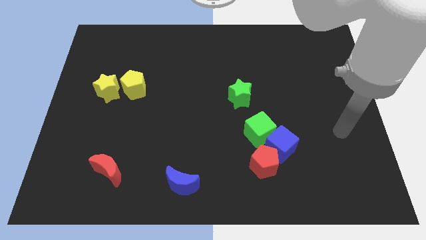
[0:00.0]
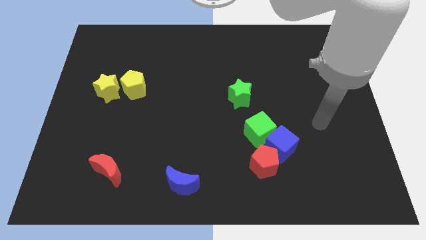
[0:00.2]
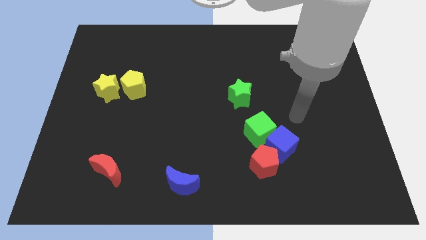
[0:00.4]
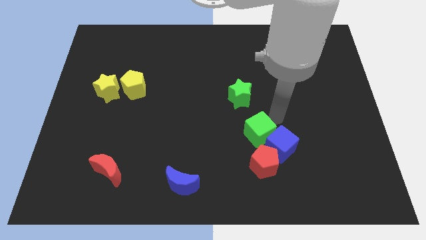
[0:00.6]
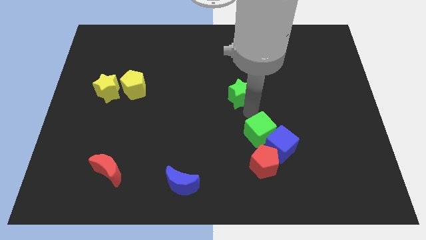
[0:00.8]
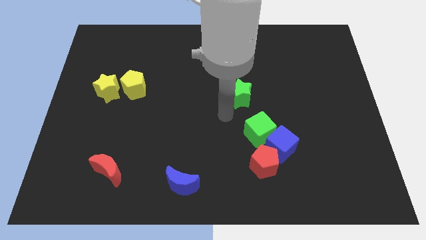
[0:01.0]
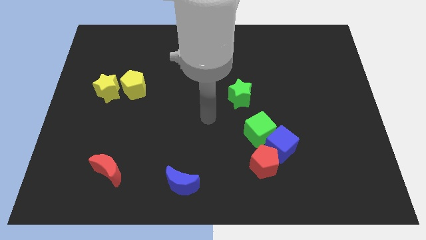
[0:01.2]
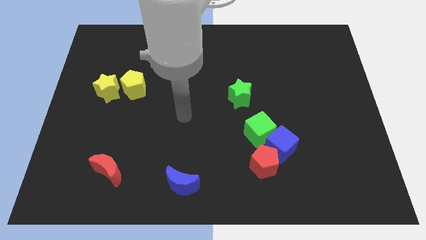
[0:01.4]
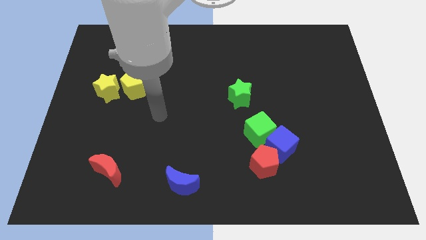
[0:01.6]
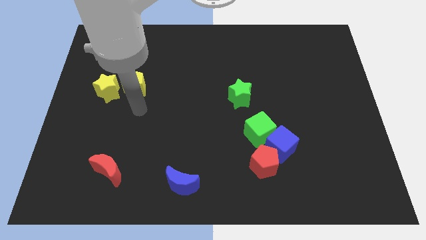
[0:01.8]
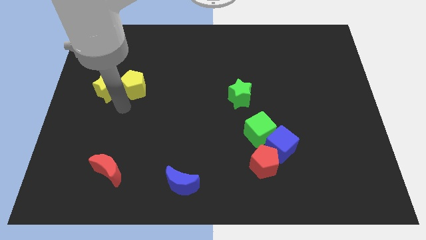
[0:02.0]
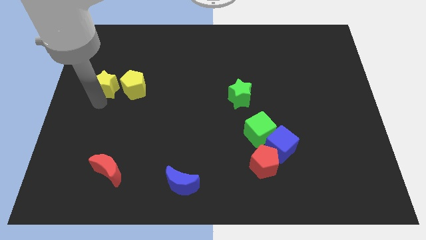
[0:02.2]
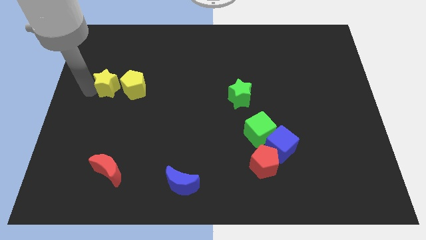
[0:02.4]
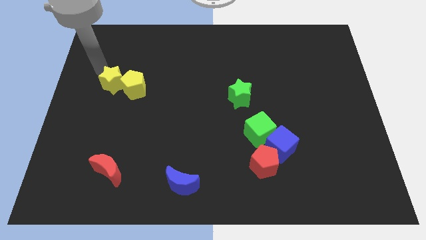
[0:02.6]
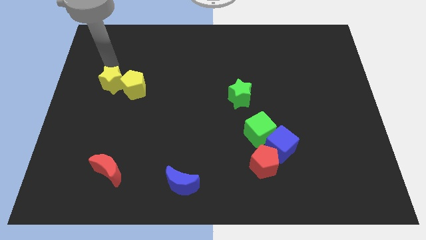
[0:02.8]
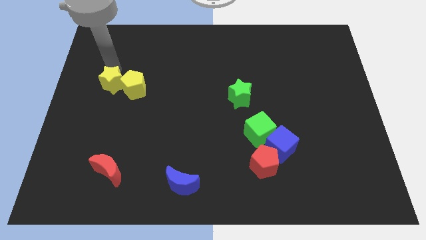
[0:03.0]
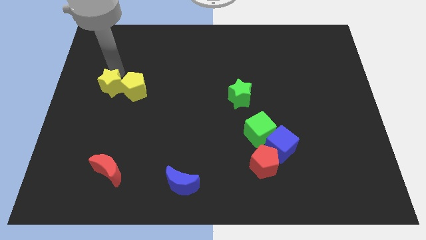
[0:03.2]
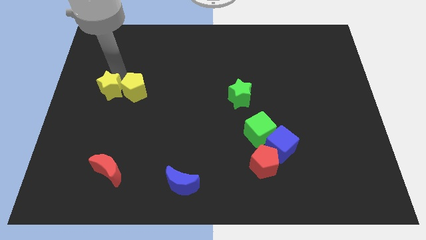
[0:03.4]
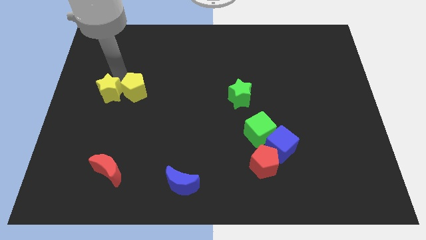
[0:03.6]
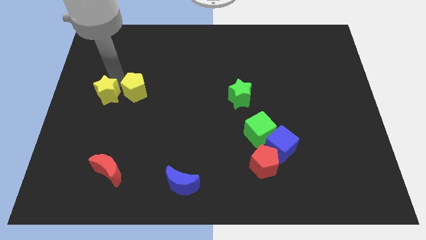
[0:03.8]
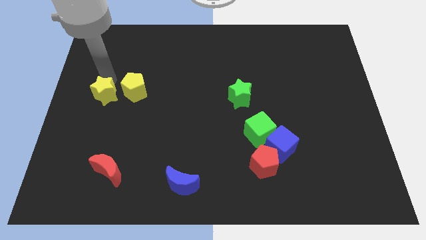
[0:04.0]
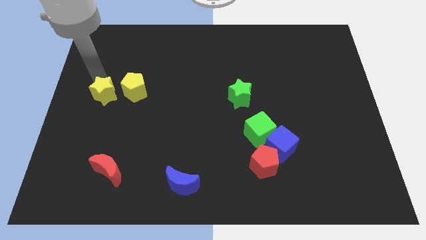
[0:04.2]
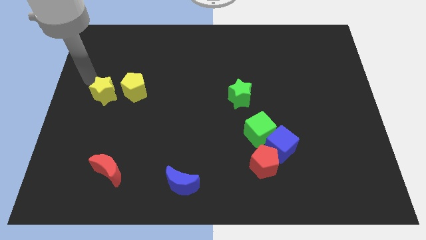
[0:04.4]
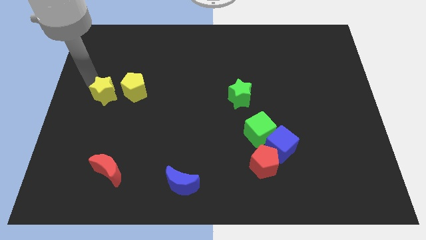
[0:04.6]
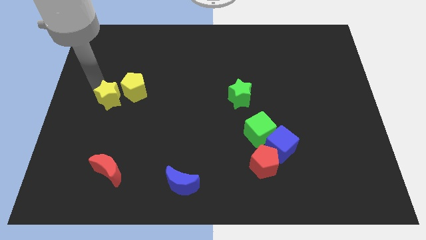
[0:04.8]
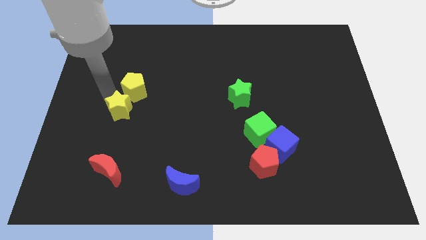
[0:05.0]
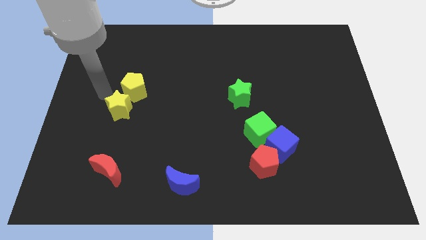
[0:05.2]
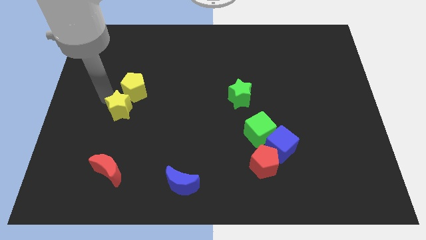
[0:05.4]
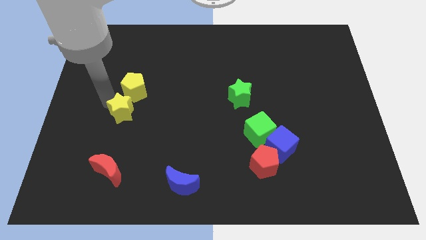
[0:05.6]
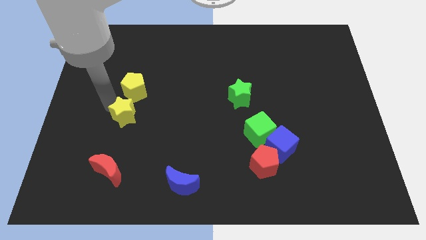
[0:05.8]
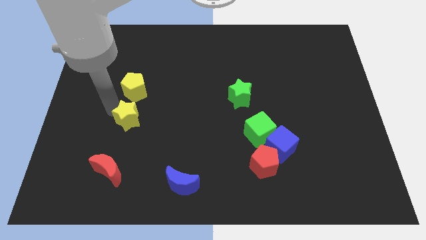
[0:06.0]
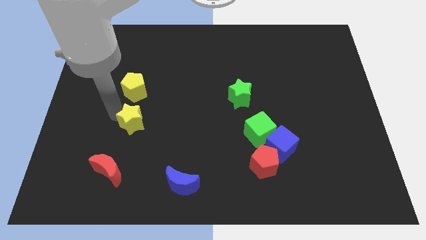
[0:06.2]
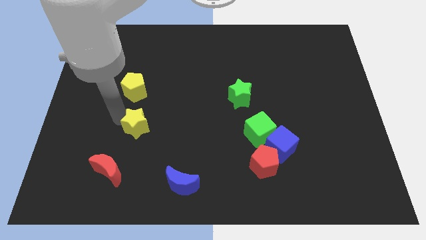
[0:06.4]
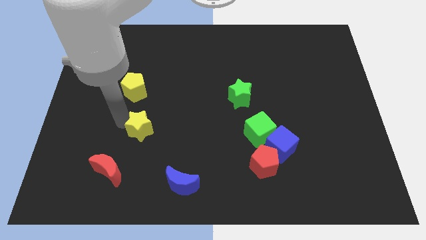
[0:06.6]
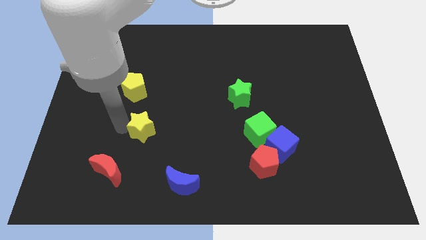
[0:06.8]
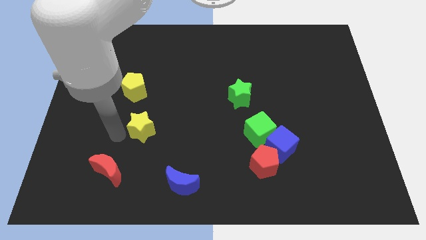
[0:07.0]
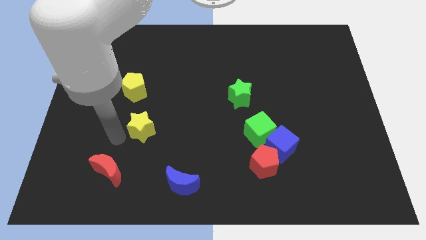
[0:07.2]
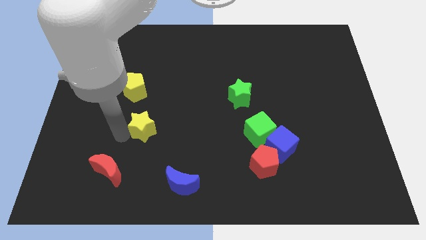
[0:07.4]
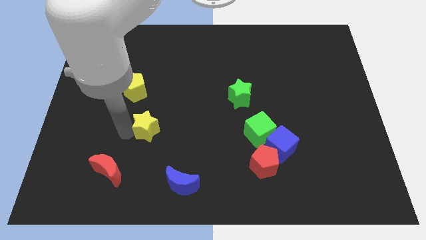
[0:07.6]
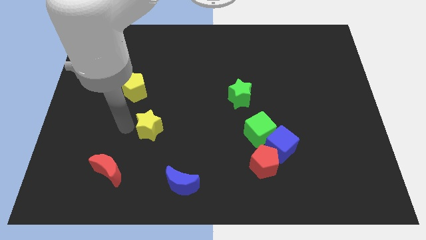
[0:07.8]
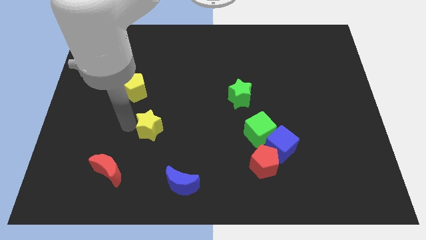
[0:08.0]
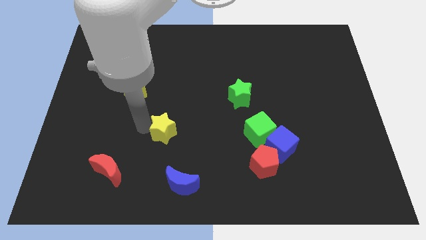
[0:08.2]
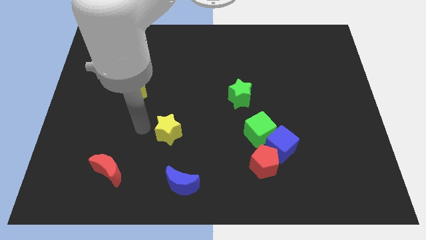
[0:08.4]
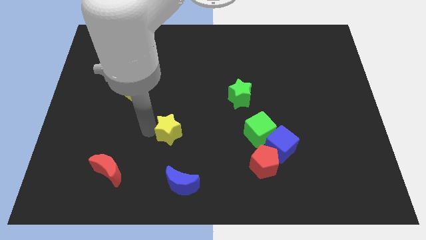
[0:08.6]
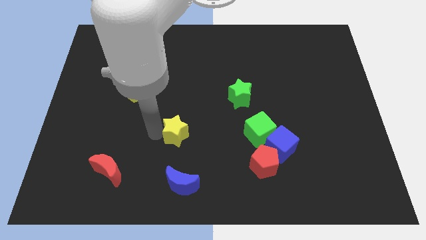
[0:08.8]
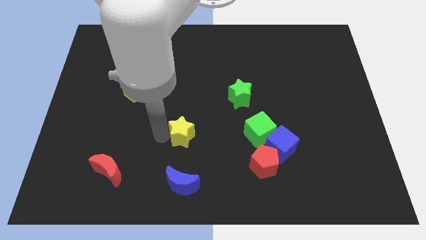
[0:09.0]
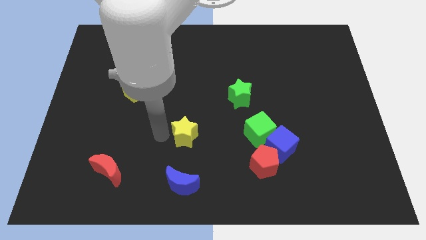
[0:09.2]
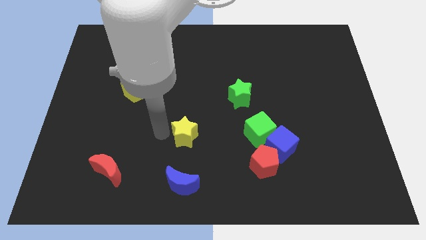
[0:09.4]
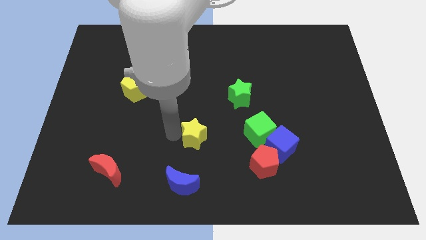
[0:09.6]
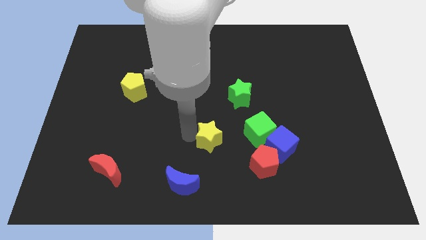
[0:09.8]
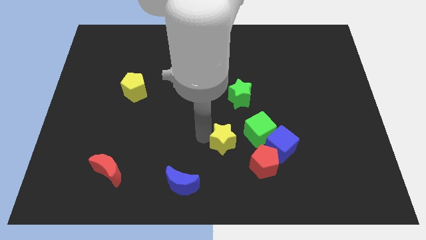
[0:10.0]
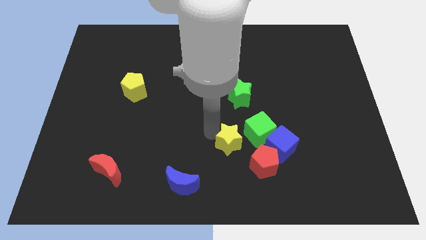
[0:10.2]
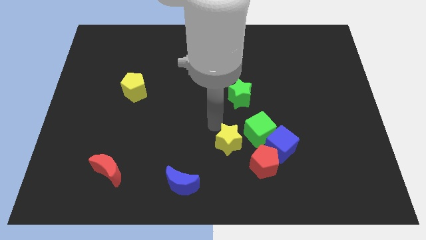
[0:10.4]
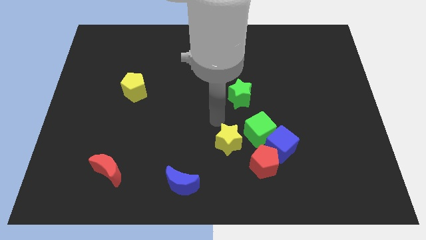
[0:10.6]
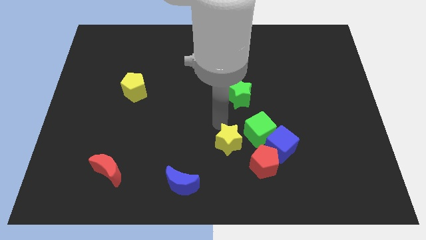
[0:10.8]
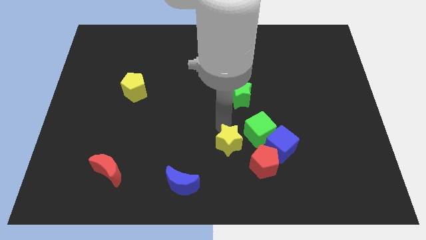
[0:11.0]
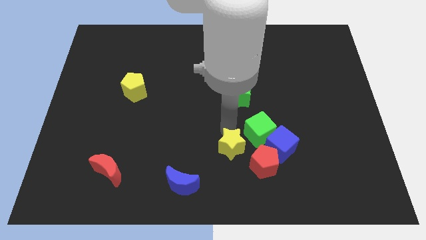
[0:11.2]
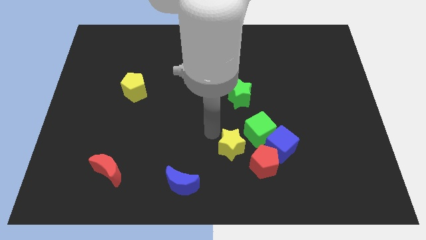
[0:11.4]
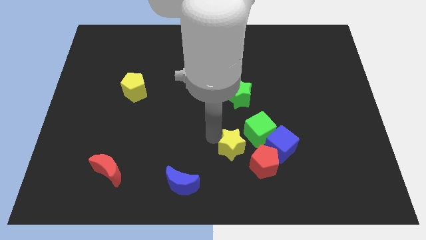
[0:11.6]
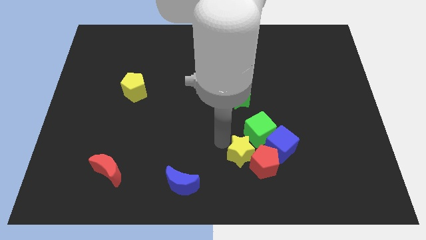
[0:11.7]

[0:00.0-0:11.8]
push the yellow star next to the red pentagon

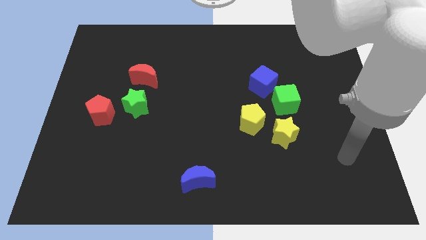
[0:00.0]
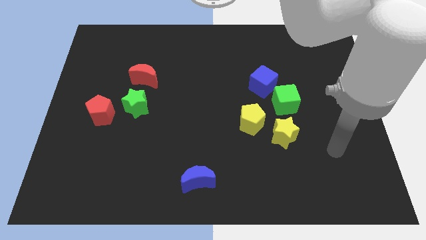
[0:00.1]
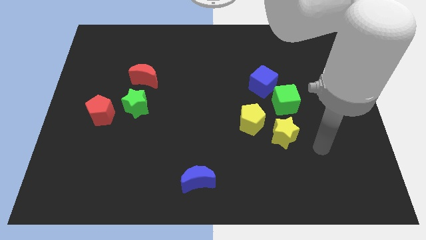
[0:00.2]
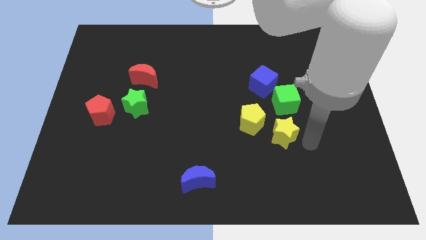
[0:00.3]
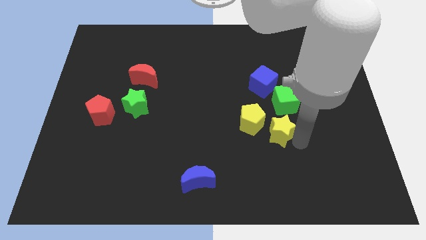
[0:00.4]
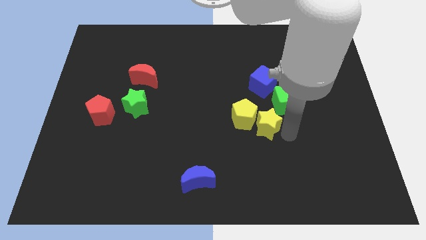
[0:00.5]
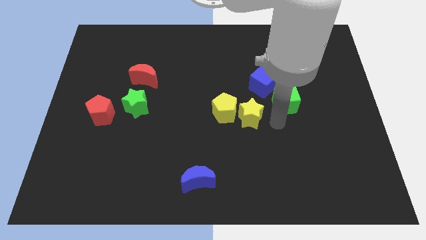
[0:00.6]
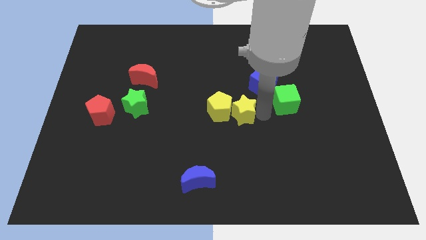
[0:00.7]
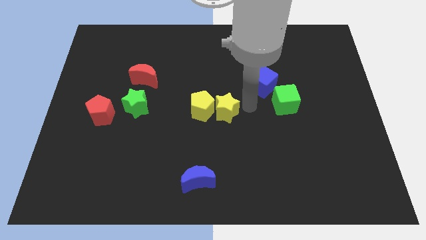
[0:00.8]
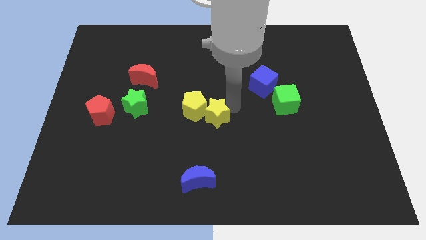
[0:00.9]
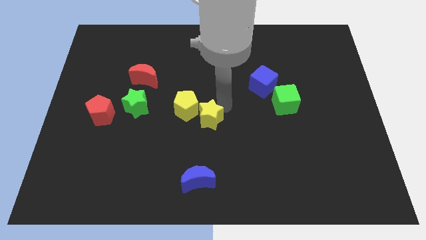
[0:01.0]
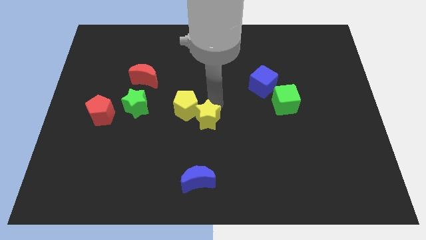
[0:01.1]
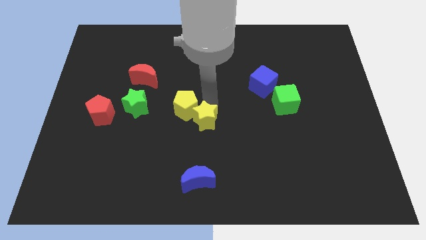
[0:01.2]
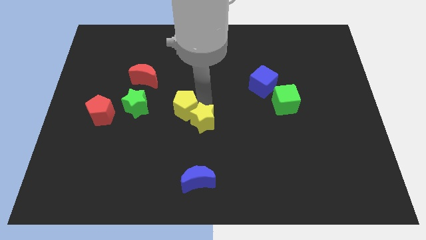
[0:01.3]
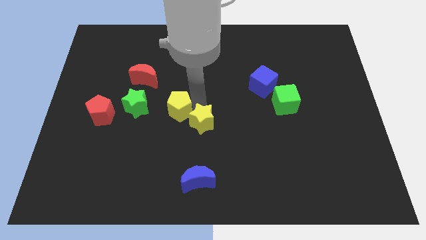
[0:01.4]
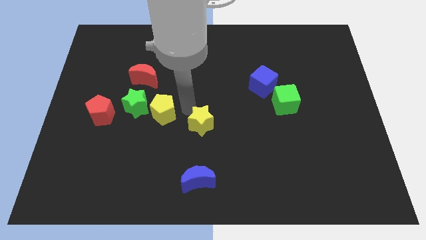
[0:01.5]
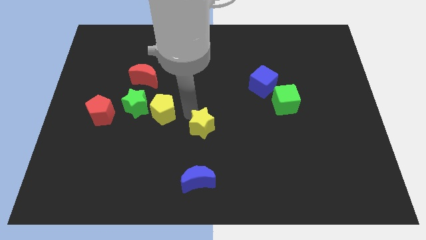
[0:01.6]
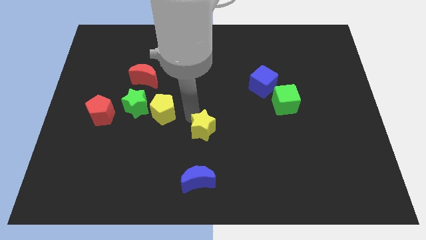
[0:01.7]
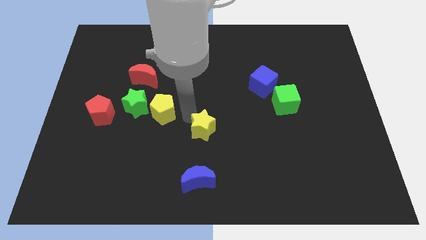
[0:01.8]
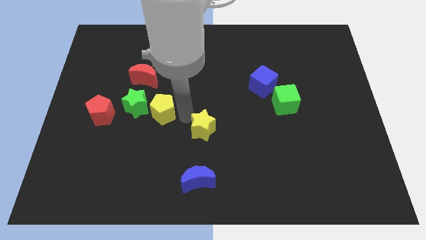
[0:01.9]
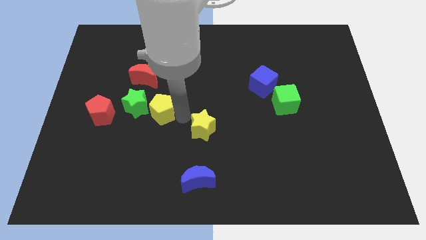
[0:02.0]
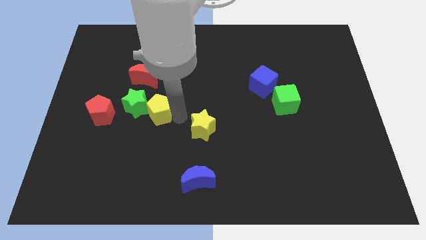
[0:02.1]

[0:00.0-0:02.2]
move the yellow pentagon to the green star
